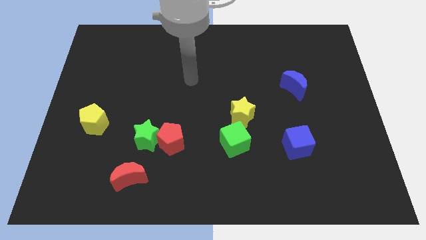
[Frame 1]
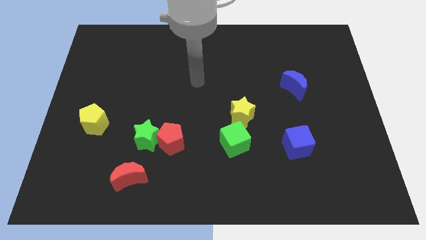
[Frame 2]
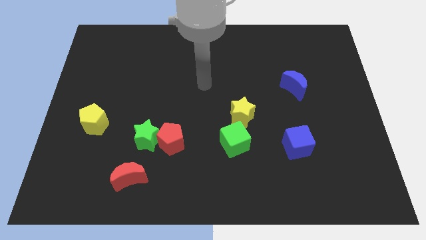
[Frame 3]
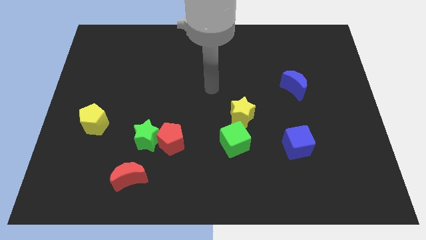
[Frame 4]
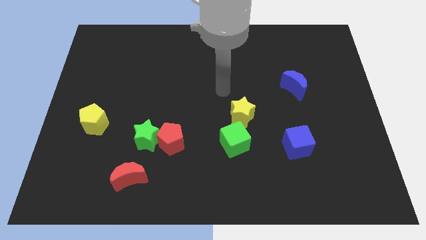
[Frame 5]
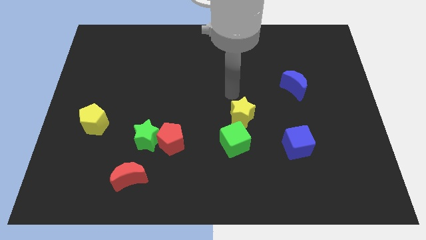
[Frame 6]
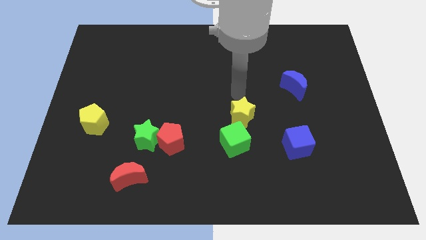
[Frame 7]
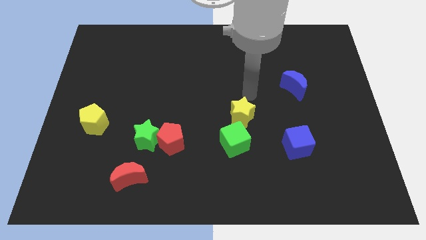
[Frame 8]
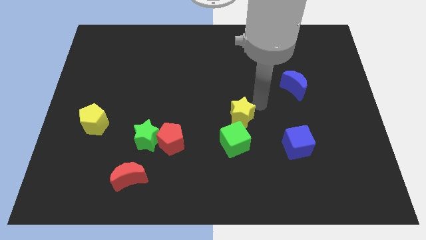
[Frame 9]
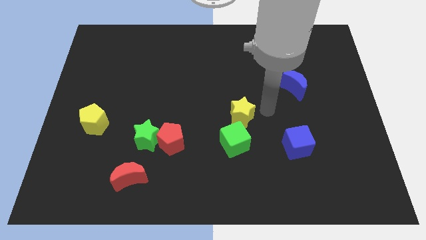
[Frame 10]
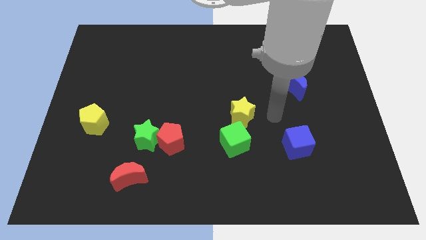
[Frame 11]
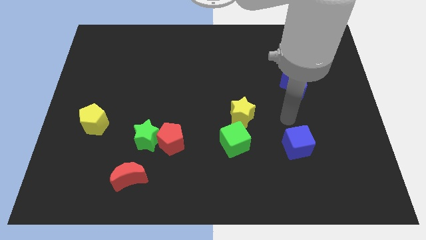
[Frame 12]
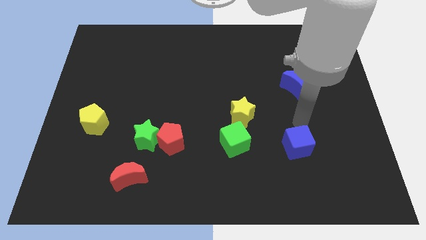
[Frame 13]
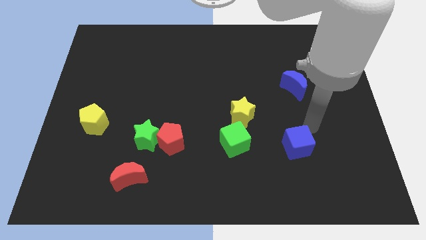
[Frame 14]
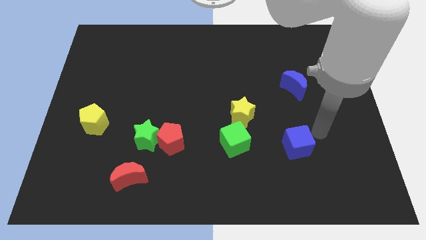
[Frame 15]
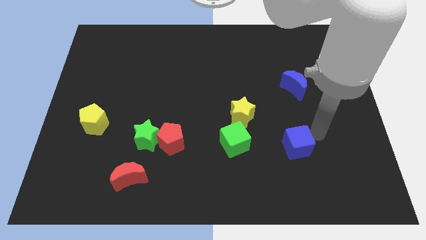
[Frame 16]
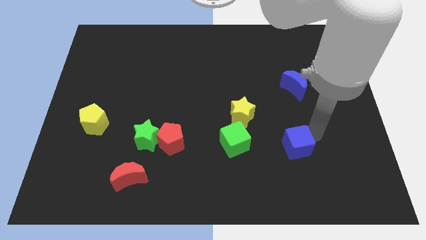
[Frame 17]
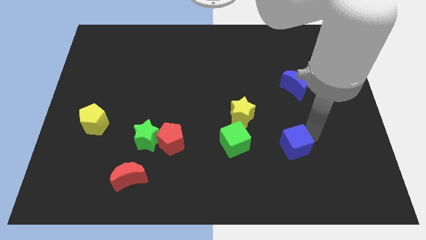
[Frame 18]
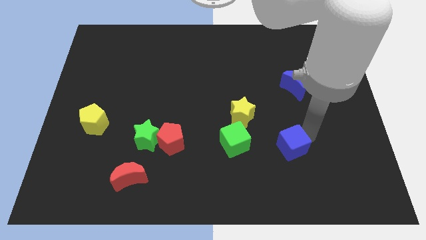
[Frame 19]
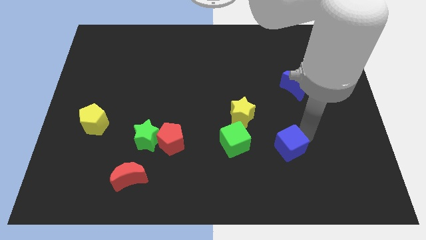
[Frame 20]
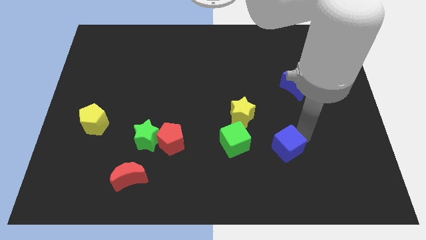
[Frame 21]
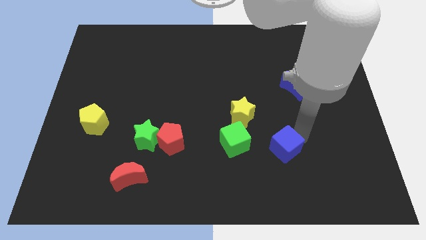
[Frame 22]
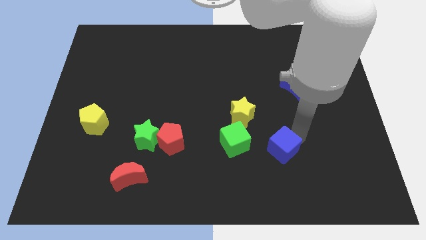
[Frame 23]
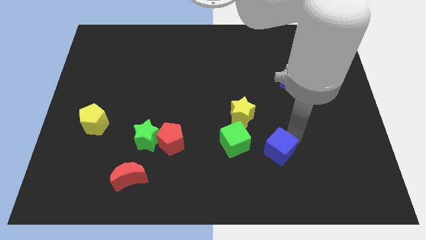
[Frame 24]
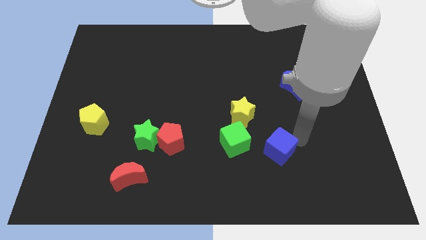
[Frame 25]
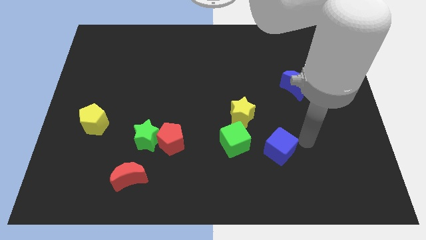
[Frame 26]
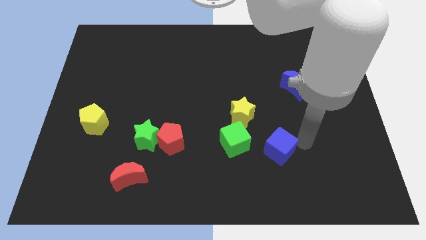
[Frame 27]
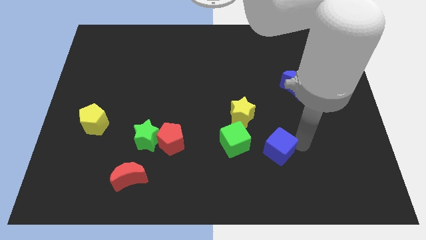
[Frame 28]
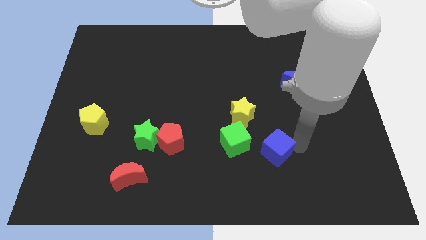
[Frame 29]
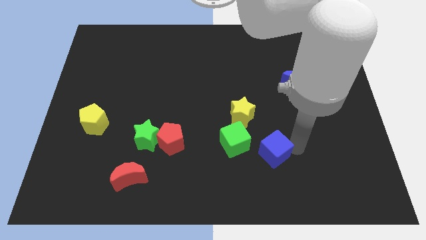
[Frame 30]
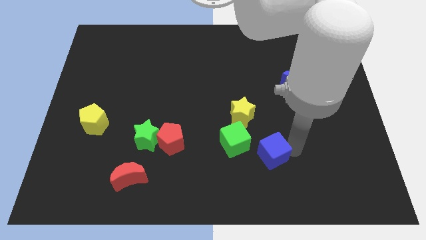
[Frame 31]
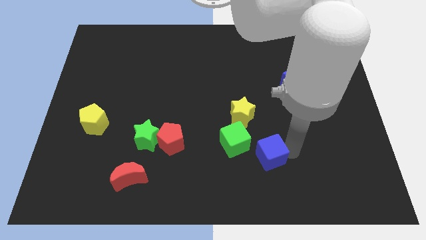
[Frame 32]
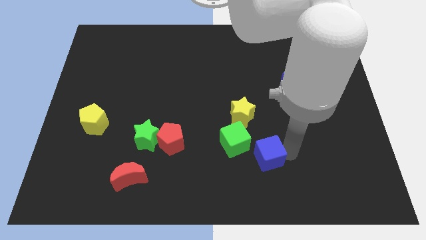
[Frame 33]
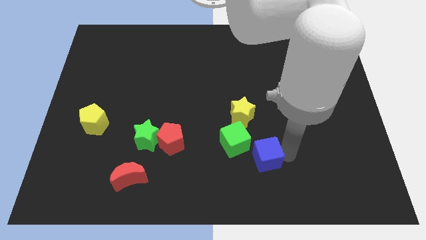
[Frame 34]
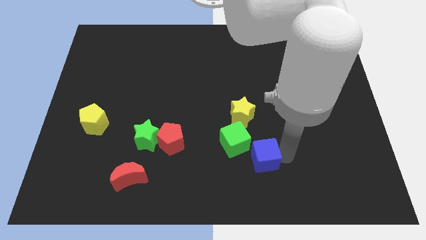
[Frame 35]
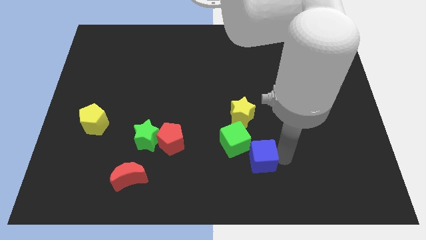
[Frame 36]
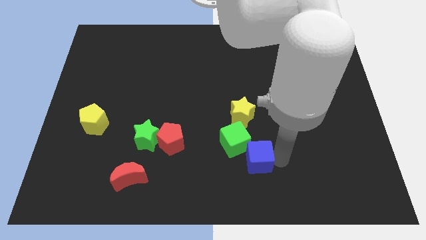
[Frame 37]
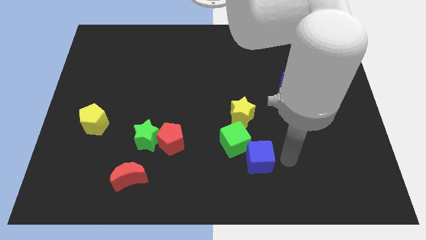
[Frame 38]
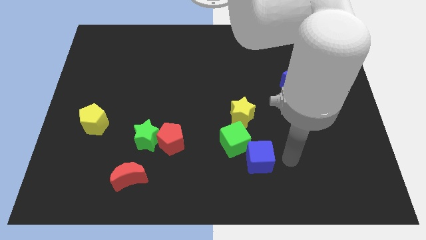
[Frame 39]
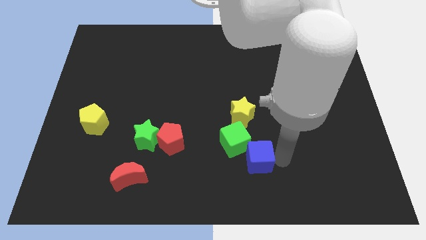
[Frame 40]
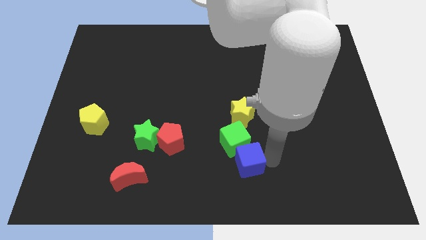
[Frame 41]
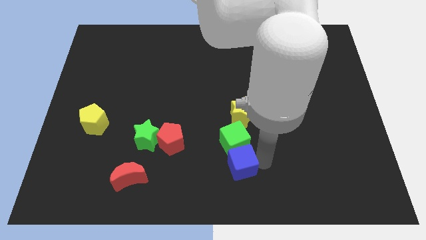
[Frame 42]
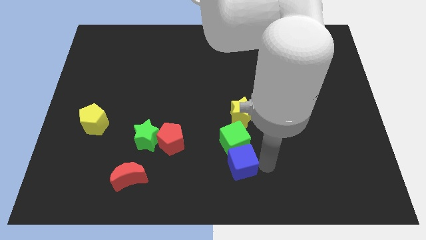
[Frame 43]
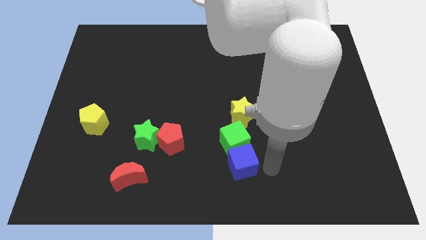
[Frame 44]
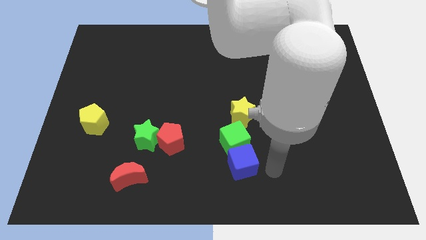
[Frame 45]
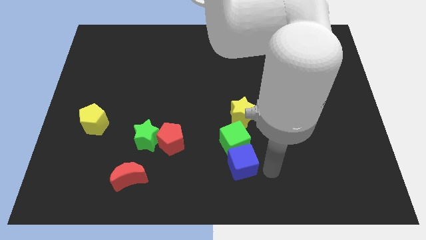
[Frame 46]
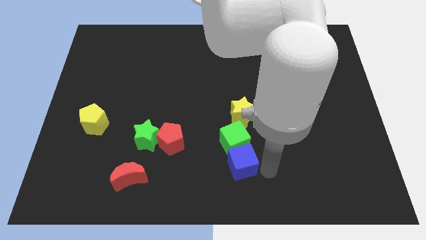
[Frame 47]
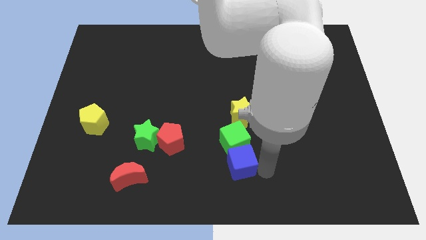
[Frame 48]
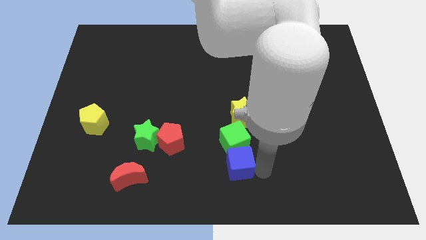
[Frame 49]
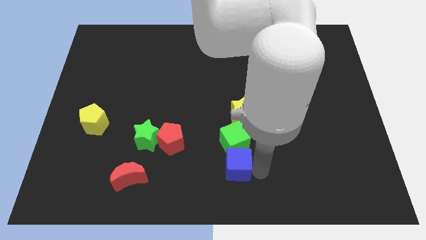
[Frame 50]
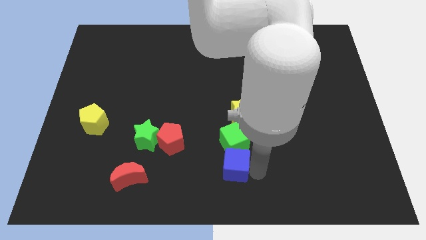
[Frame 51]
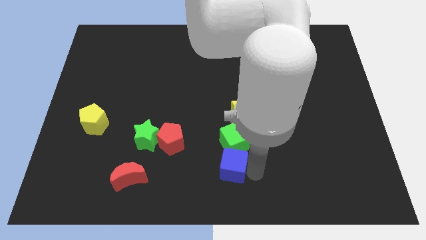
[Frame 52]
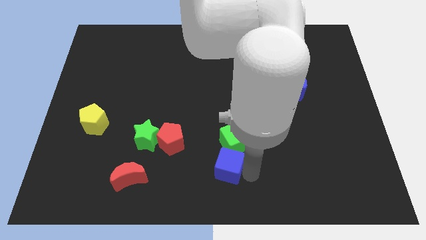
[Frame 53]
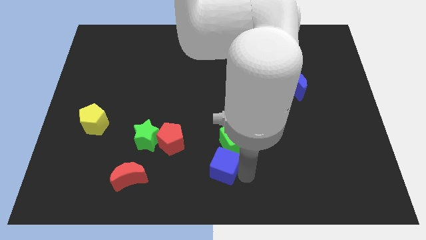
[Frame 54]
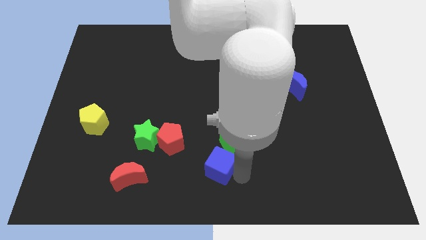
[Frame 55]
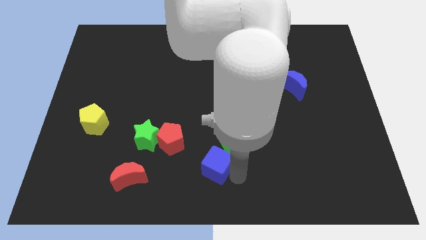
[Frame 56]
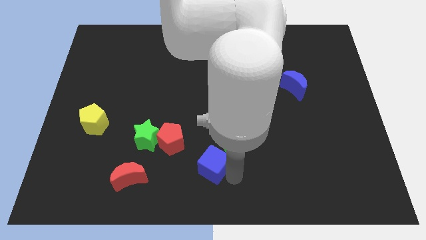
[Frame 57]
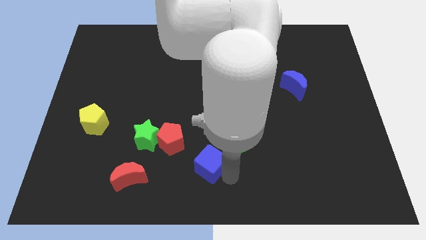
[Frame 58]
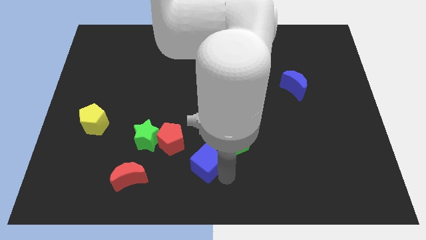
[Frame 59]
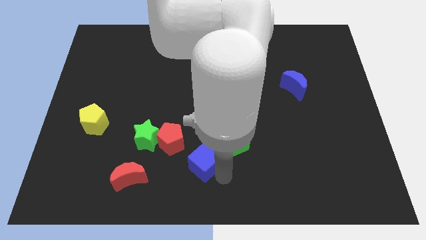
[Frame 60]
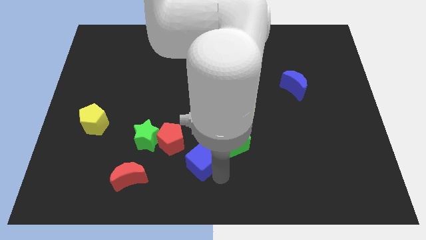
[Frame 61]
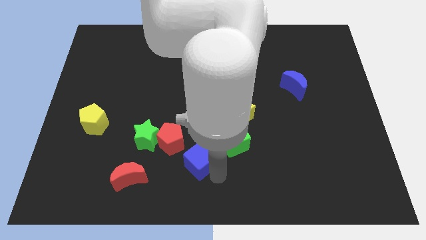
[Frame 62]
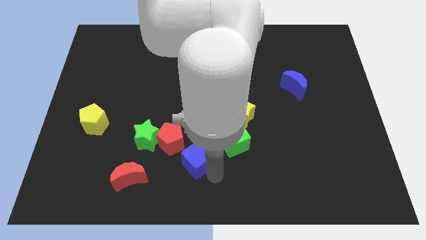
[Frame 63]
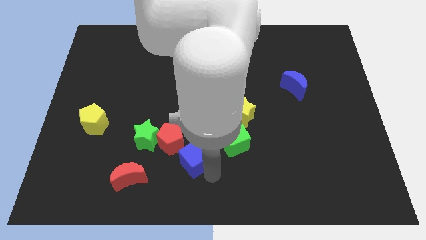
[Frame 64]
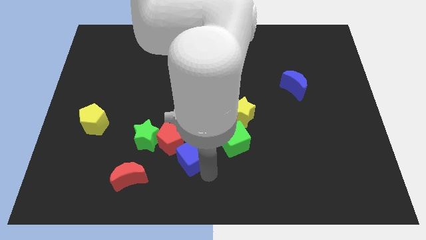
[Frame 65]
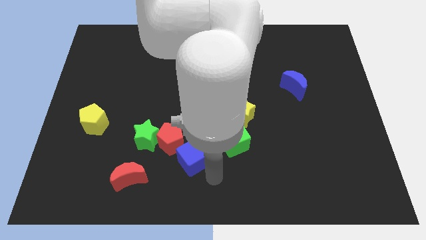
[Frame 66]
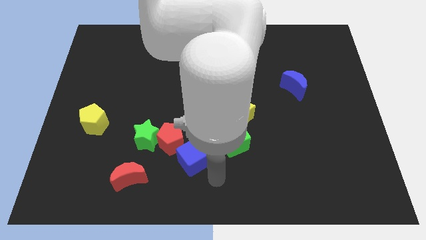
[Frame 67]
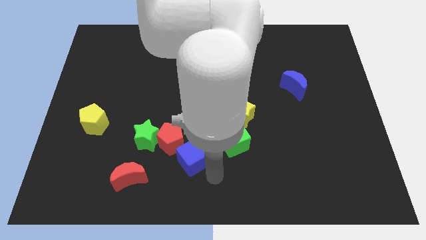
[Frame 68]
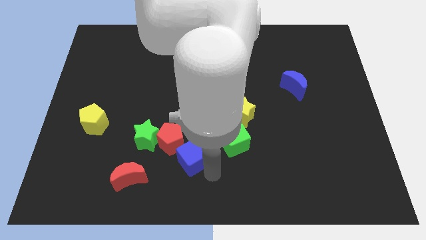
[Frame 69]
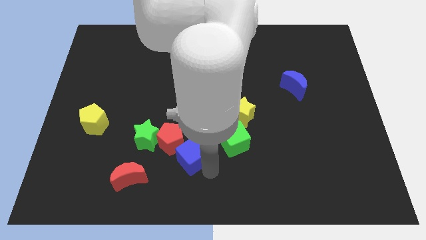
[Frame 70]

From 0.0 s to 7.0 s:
push the blue cube close to the red pentagon

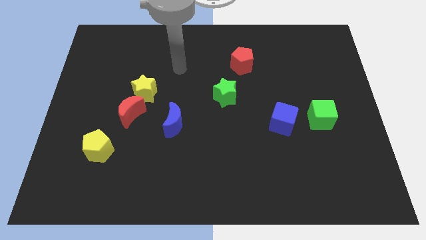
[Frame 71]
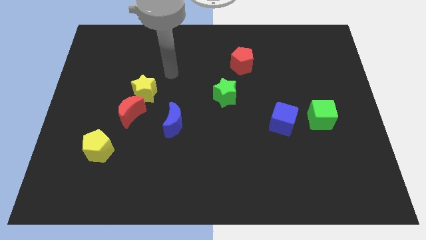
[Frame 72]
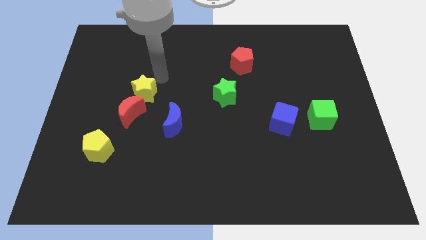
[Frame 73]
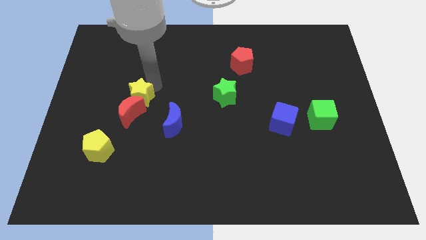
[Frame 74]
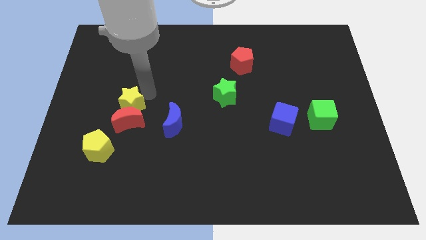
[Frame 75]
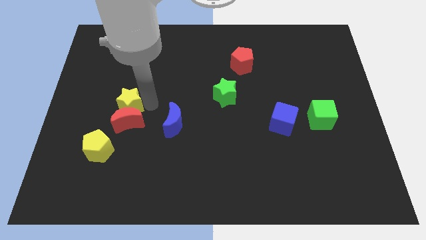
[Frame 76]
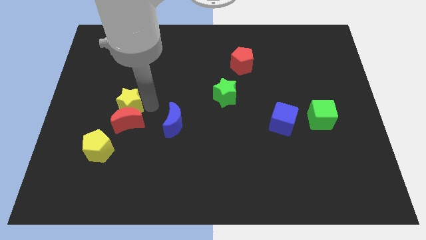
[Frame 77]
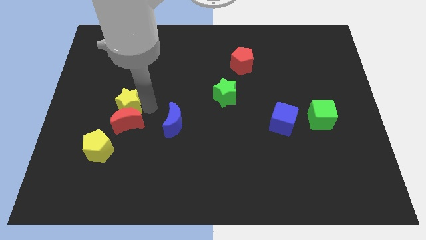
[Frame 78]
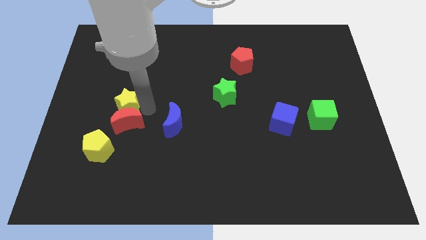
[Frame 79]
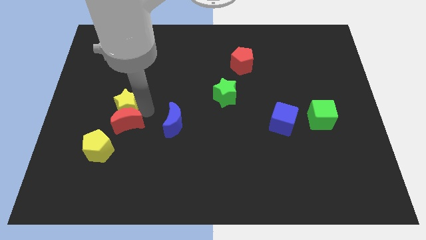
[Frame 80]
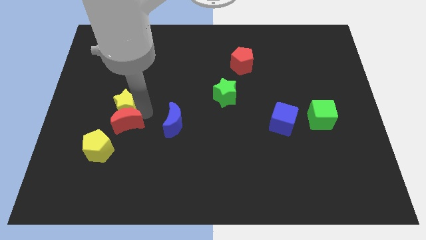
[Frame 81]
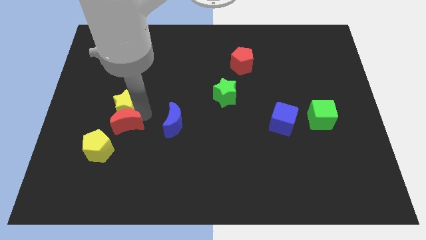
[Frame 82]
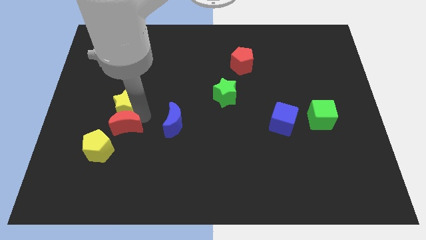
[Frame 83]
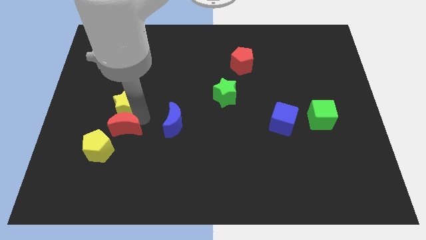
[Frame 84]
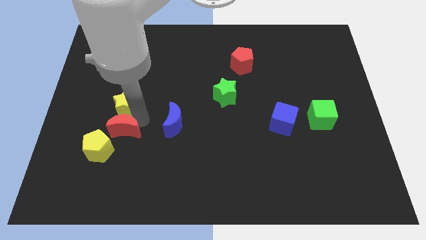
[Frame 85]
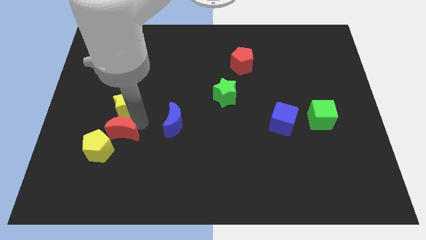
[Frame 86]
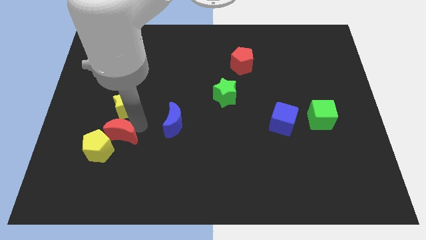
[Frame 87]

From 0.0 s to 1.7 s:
move the red moon next to the yellow pentagon
